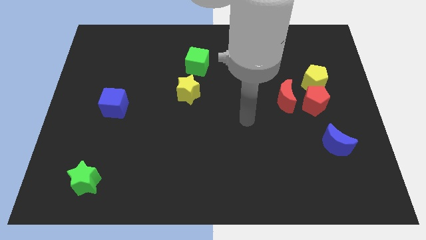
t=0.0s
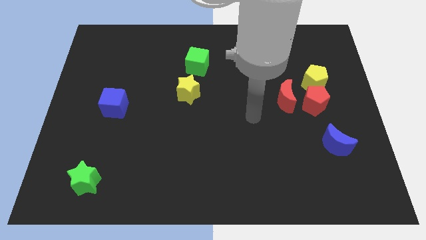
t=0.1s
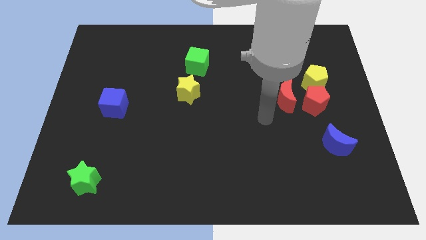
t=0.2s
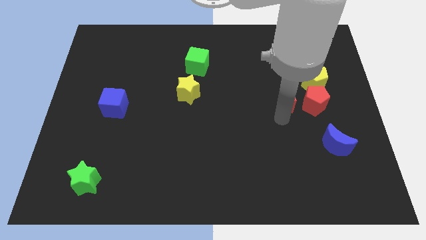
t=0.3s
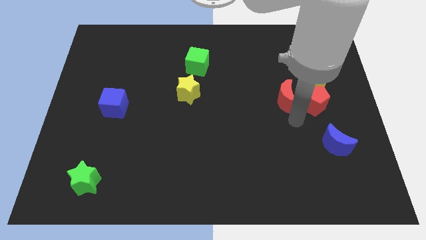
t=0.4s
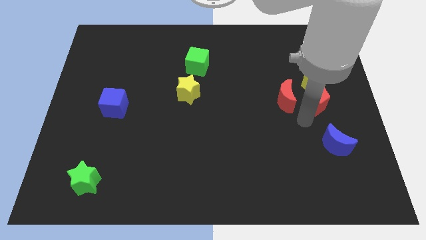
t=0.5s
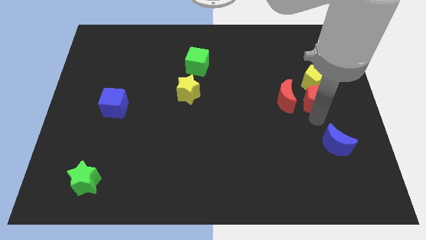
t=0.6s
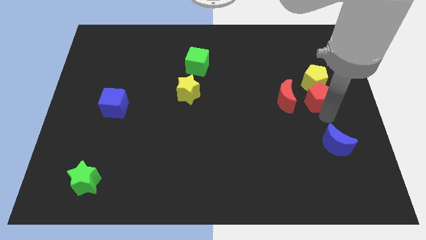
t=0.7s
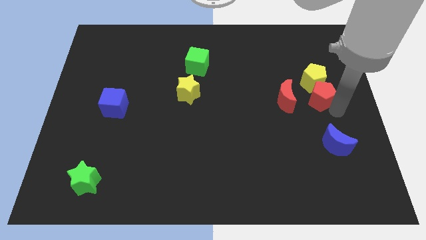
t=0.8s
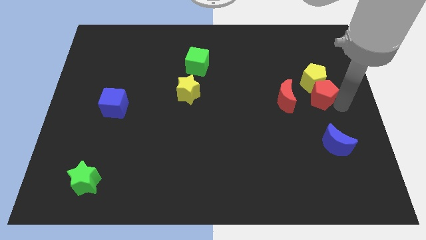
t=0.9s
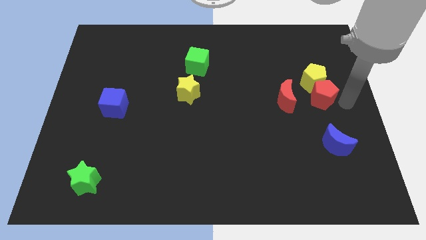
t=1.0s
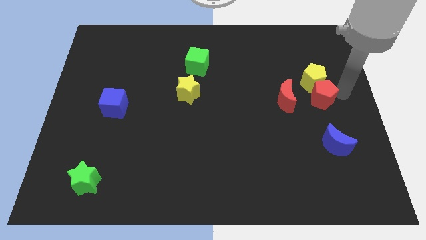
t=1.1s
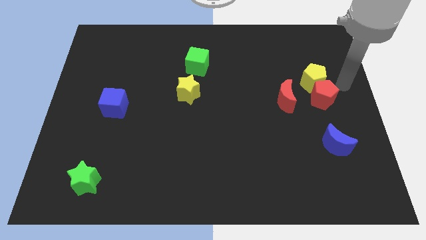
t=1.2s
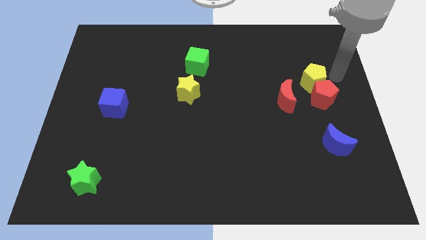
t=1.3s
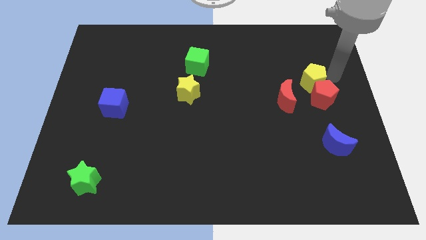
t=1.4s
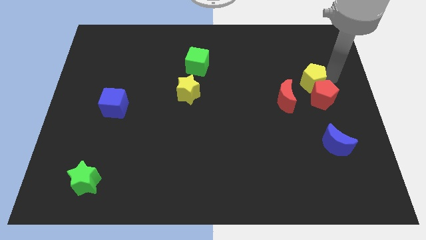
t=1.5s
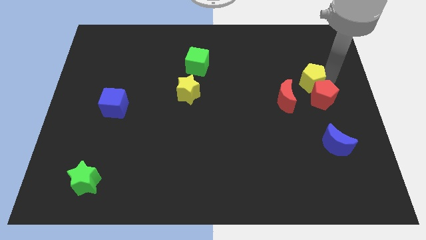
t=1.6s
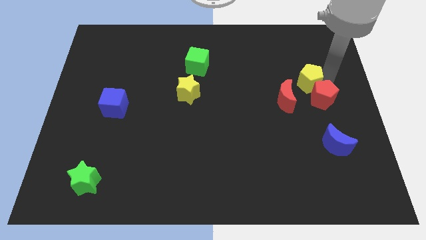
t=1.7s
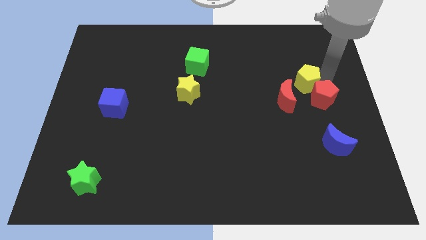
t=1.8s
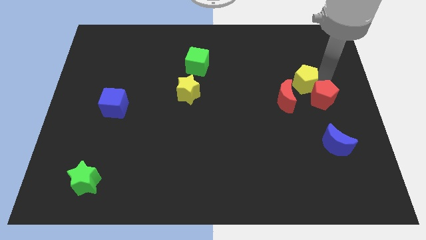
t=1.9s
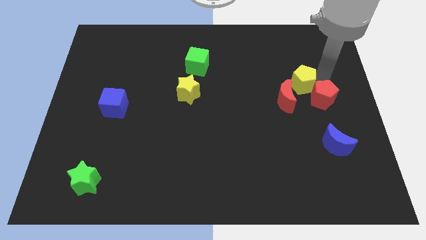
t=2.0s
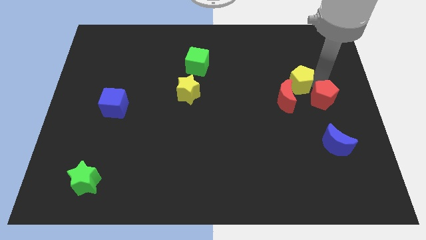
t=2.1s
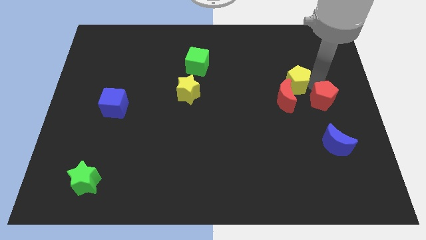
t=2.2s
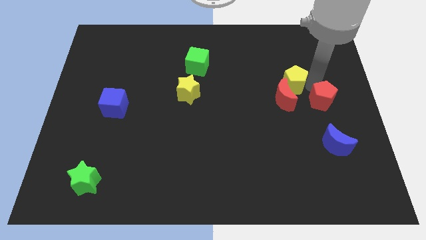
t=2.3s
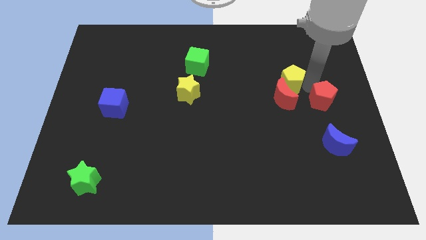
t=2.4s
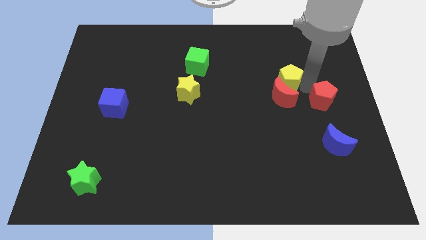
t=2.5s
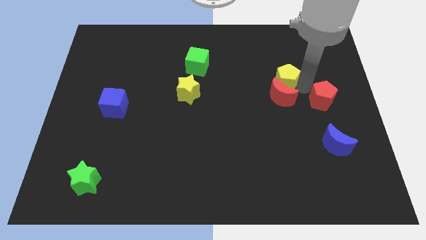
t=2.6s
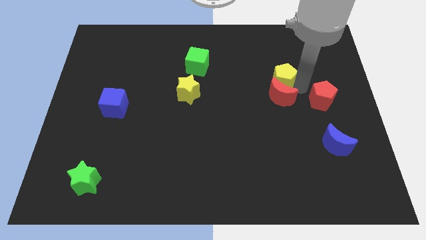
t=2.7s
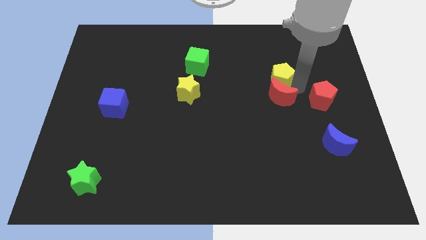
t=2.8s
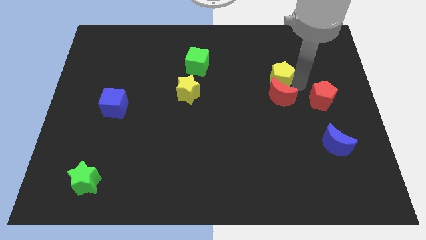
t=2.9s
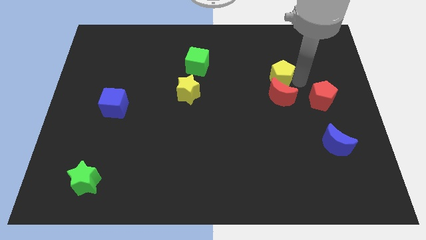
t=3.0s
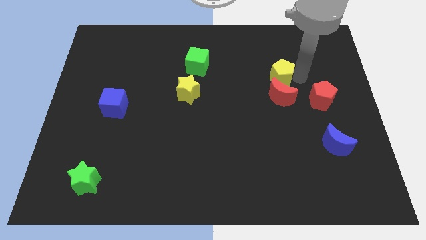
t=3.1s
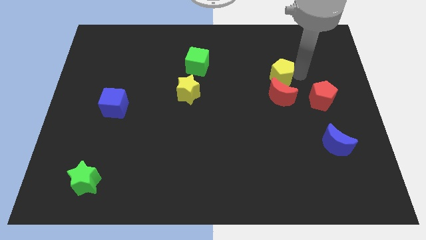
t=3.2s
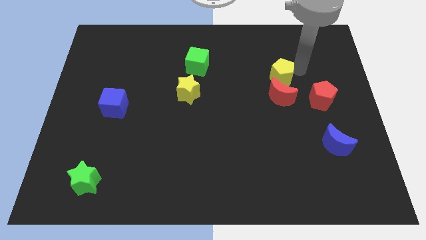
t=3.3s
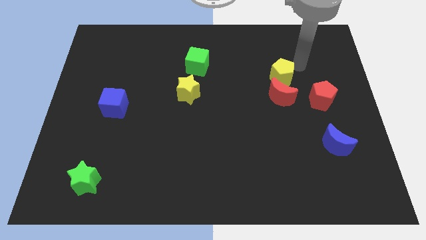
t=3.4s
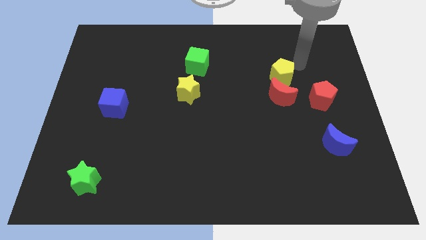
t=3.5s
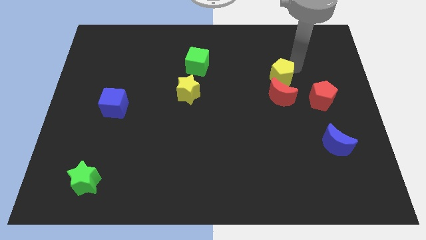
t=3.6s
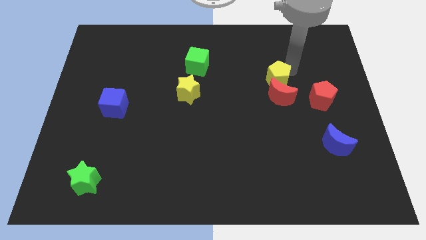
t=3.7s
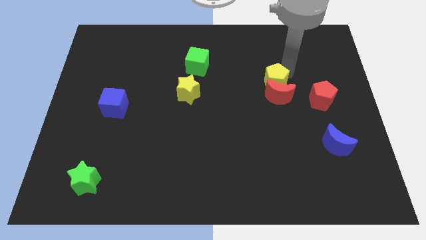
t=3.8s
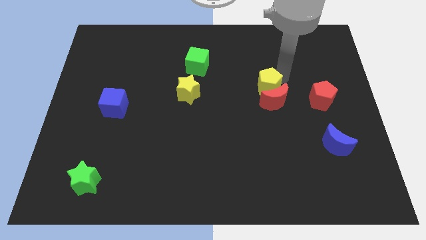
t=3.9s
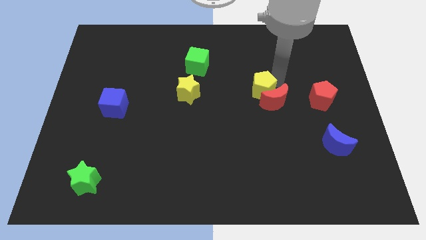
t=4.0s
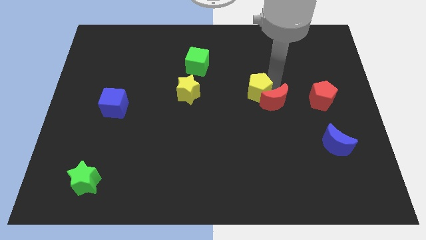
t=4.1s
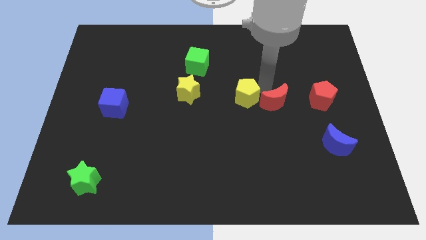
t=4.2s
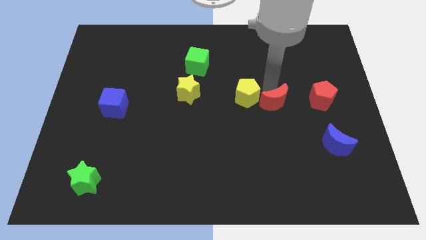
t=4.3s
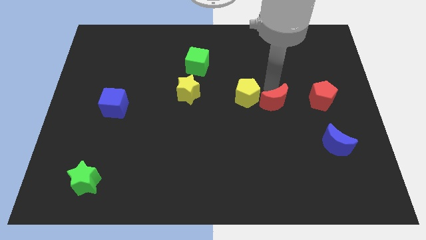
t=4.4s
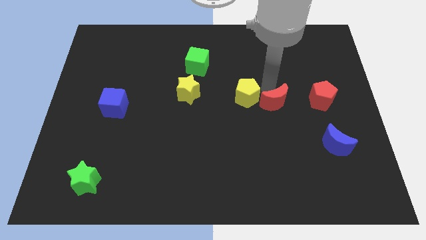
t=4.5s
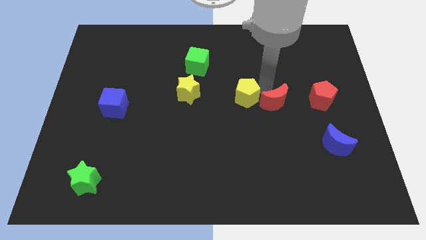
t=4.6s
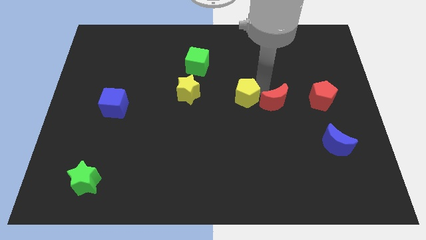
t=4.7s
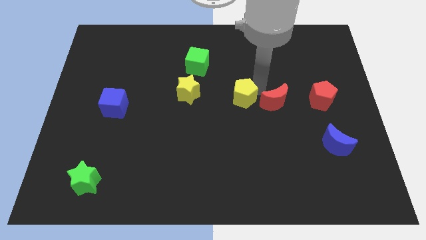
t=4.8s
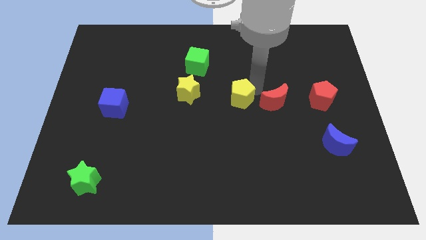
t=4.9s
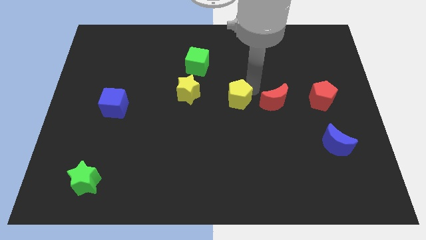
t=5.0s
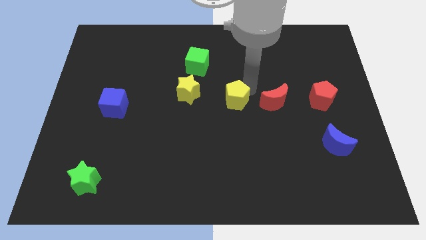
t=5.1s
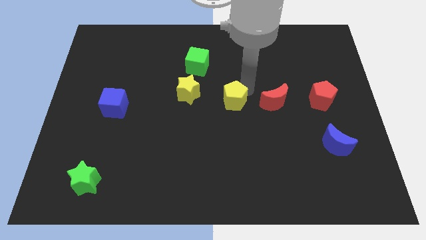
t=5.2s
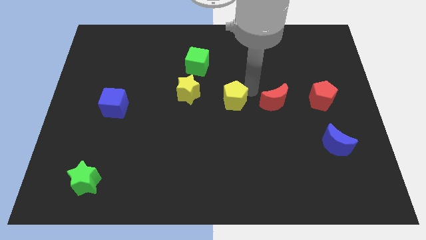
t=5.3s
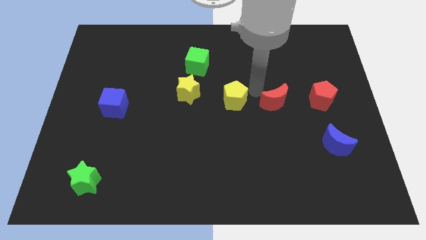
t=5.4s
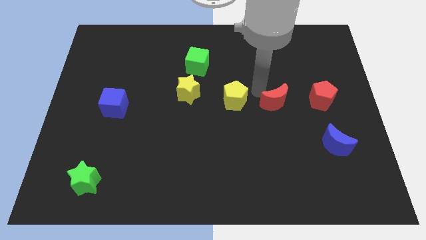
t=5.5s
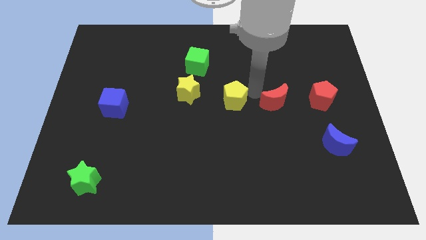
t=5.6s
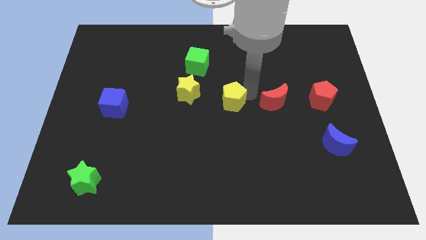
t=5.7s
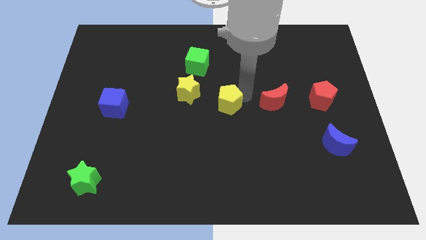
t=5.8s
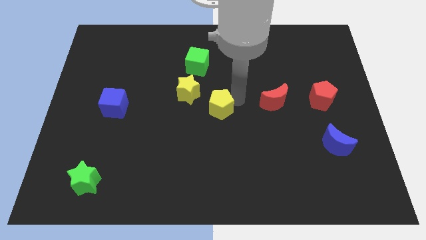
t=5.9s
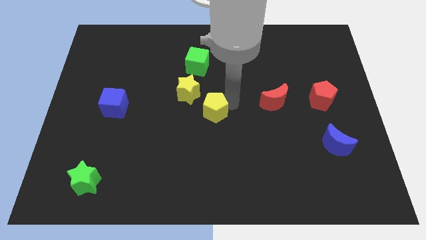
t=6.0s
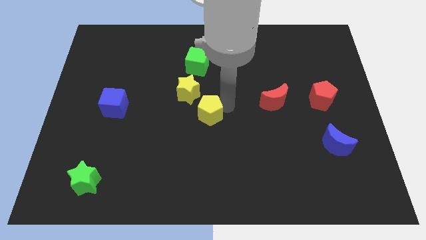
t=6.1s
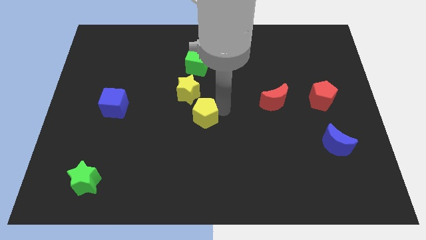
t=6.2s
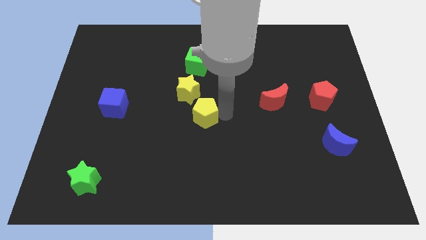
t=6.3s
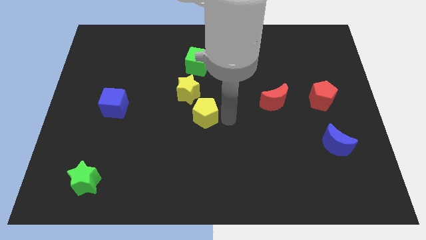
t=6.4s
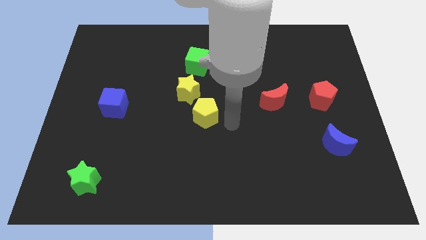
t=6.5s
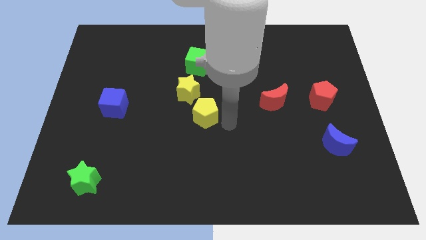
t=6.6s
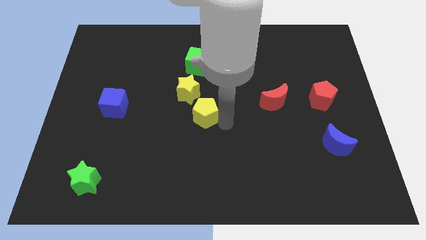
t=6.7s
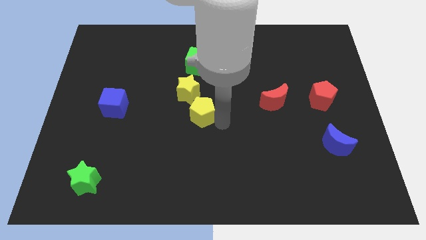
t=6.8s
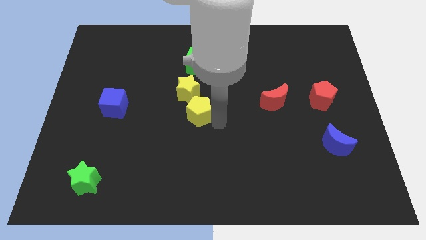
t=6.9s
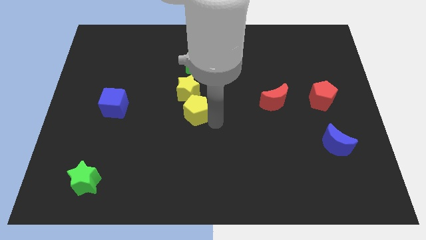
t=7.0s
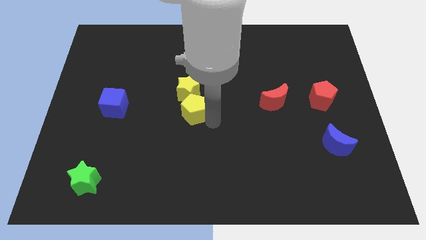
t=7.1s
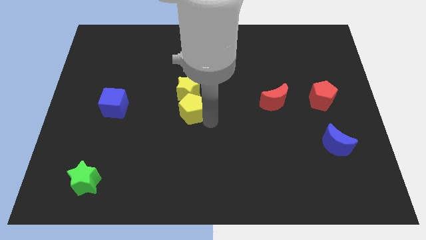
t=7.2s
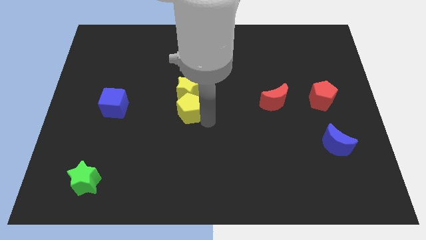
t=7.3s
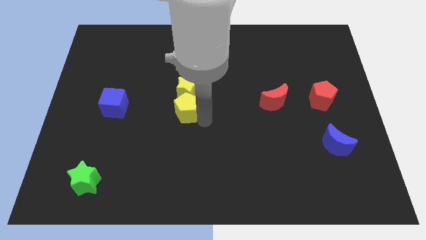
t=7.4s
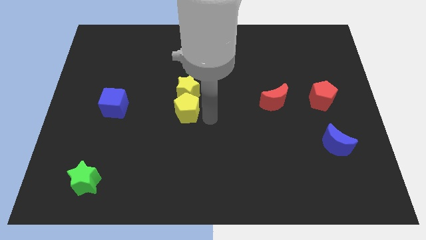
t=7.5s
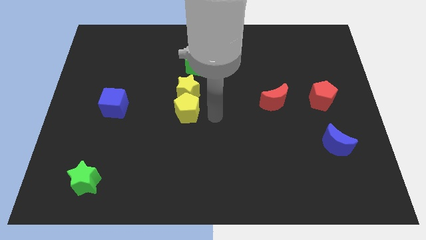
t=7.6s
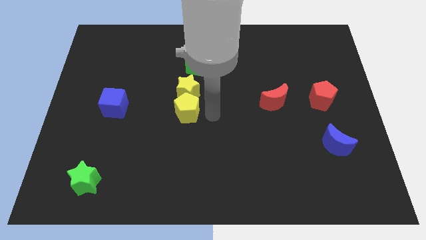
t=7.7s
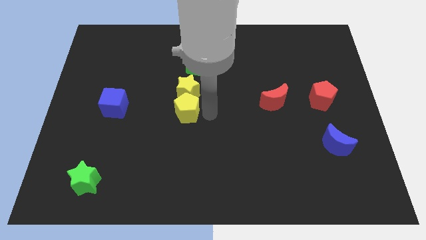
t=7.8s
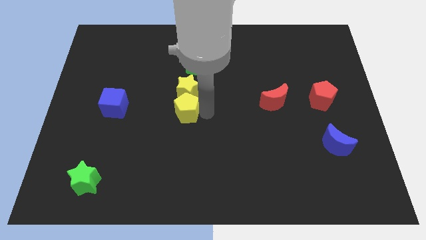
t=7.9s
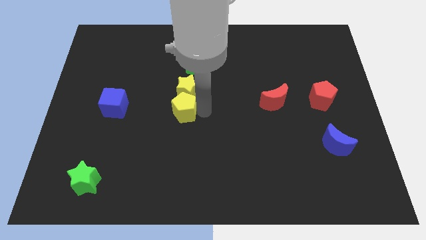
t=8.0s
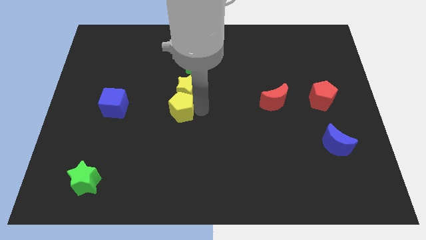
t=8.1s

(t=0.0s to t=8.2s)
move the yellow pentagon to the right side of the blue cube
